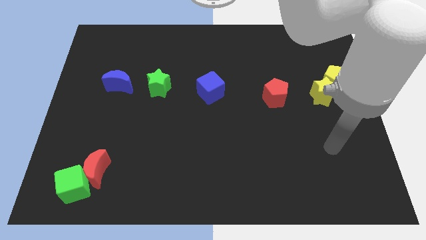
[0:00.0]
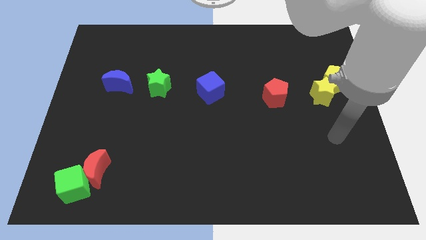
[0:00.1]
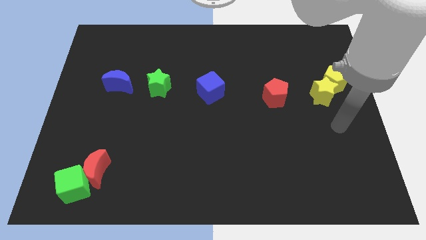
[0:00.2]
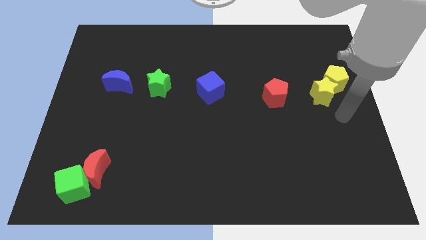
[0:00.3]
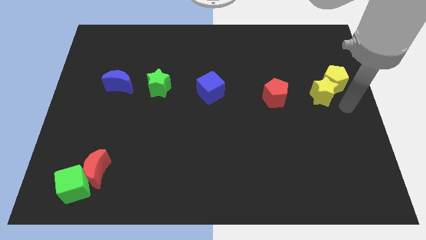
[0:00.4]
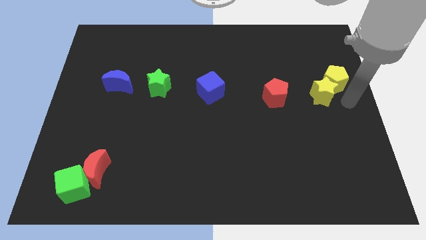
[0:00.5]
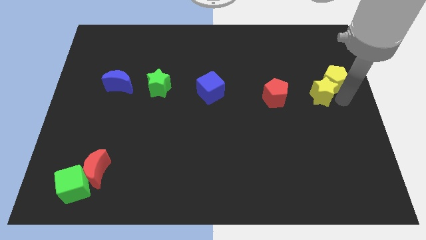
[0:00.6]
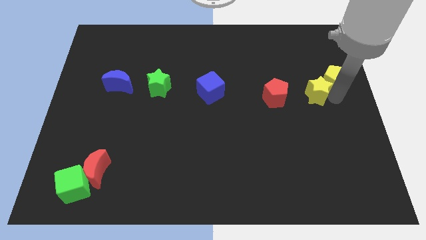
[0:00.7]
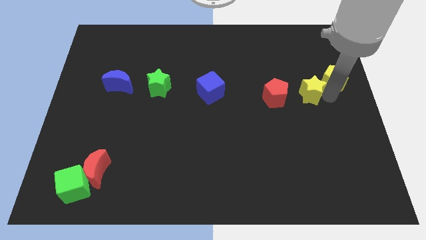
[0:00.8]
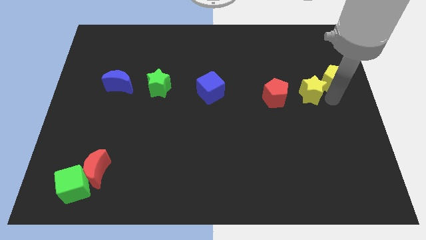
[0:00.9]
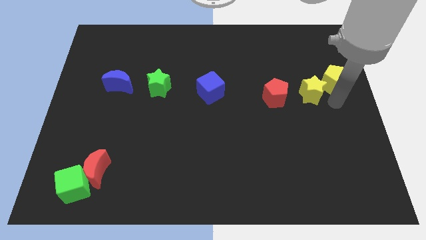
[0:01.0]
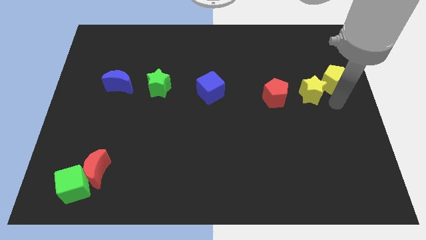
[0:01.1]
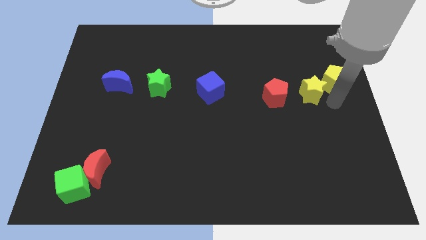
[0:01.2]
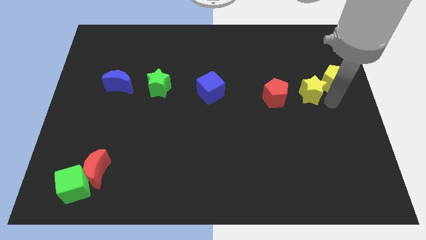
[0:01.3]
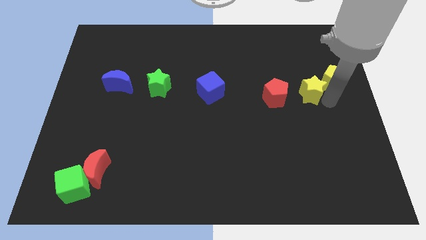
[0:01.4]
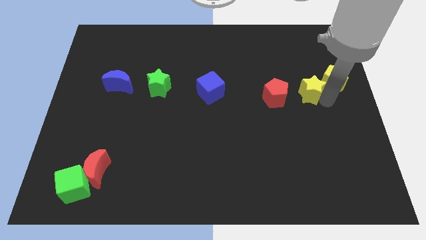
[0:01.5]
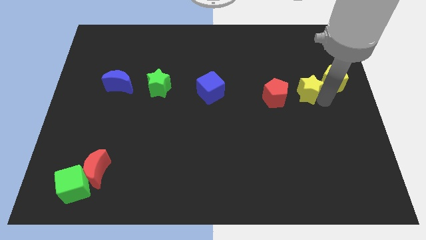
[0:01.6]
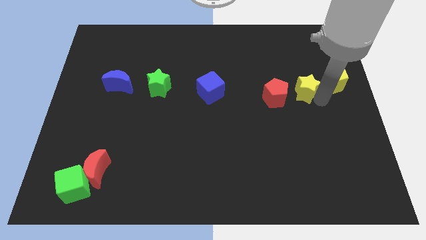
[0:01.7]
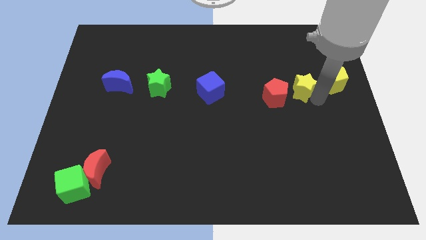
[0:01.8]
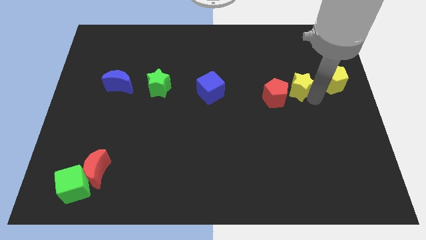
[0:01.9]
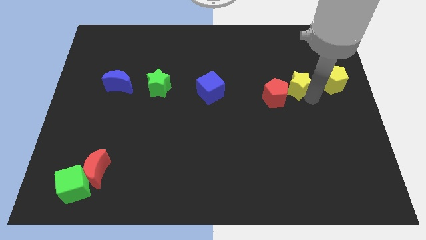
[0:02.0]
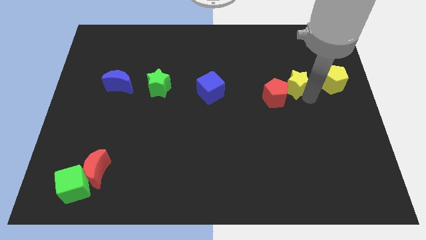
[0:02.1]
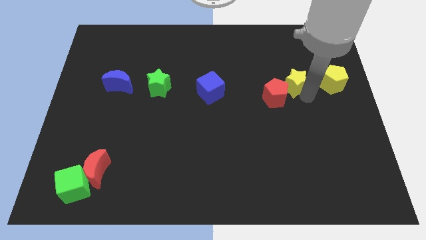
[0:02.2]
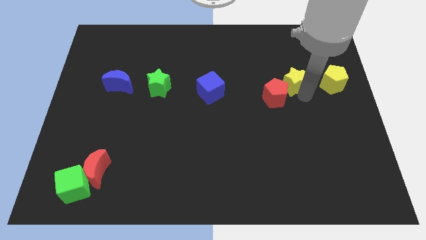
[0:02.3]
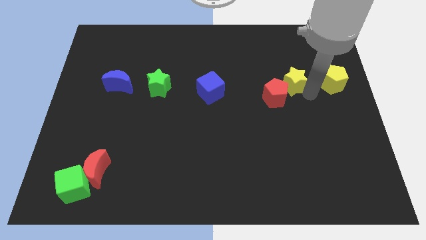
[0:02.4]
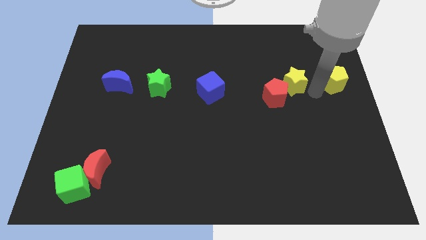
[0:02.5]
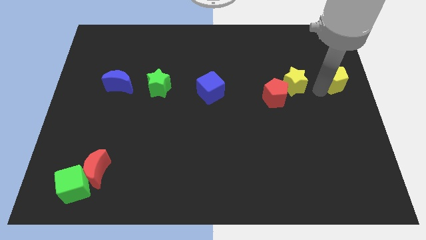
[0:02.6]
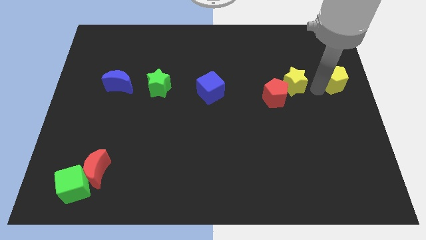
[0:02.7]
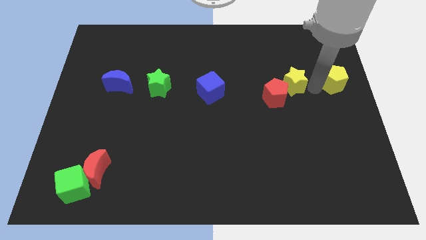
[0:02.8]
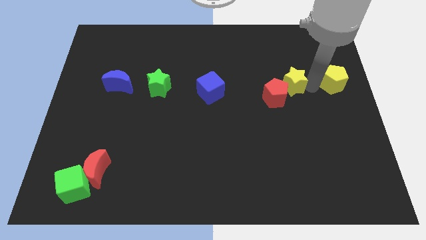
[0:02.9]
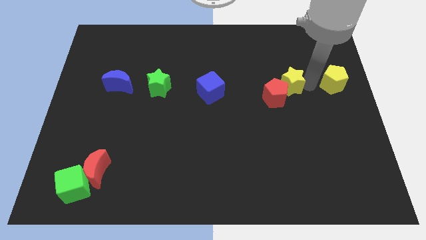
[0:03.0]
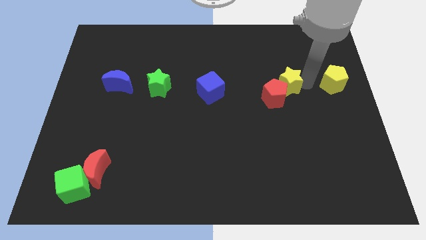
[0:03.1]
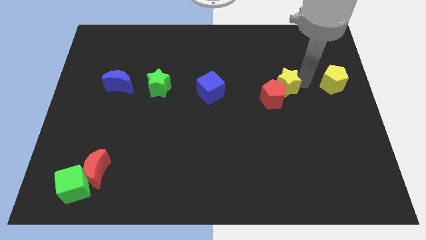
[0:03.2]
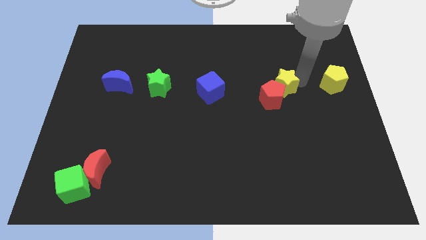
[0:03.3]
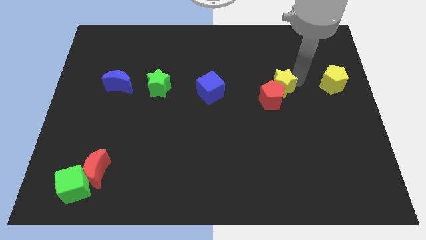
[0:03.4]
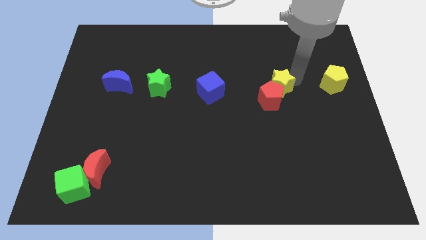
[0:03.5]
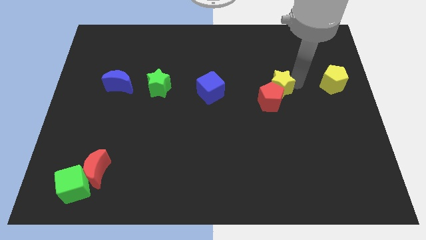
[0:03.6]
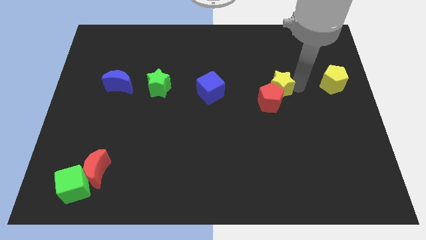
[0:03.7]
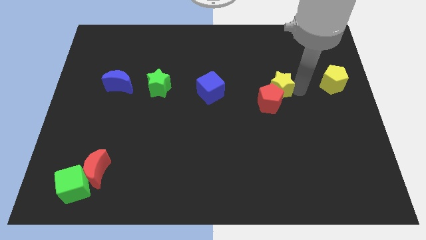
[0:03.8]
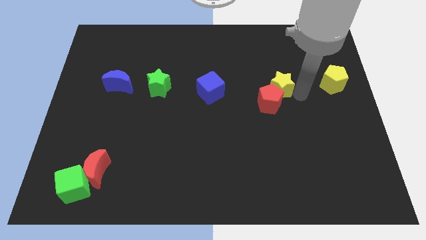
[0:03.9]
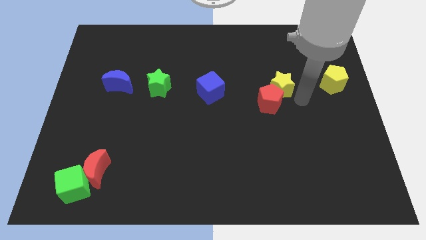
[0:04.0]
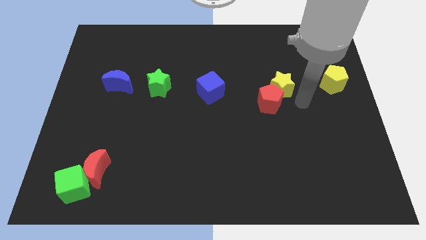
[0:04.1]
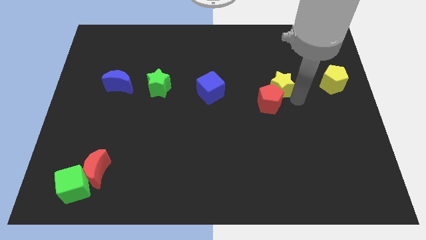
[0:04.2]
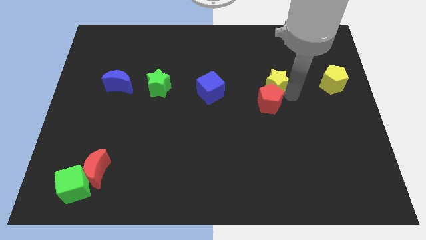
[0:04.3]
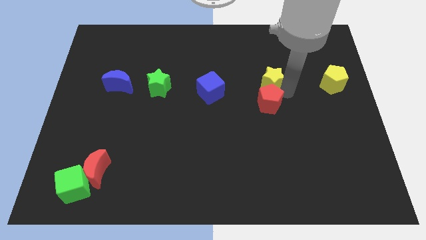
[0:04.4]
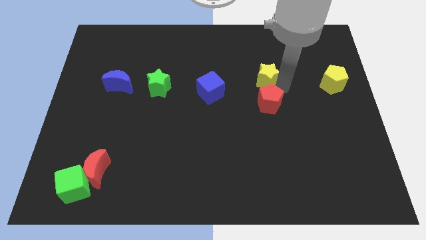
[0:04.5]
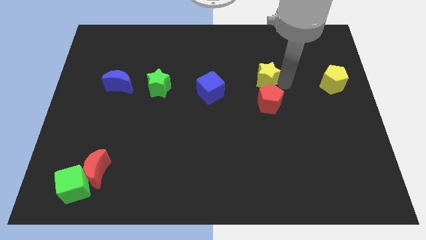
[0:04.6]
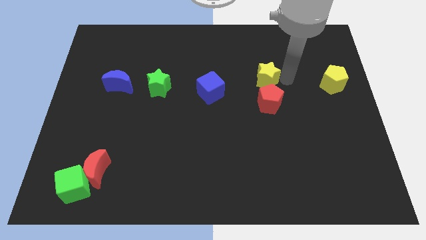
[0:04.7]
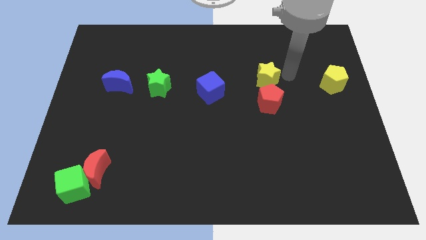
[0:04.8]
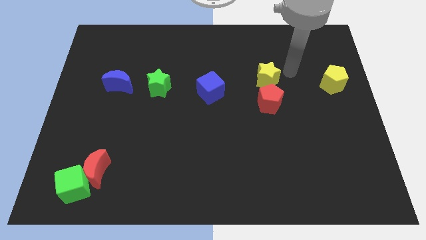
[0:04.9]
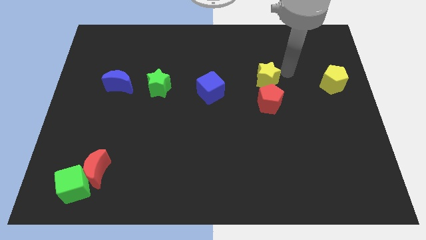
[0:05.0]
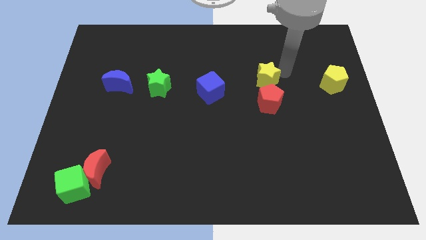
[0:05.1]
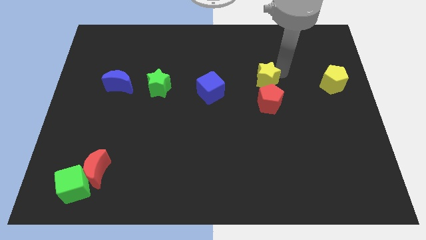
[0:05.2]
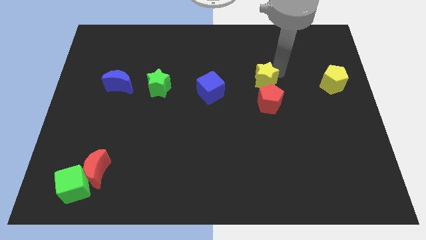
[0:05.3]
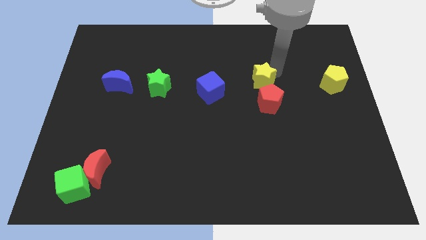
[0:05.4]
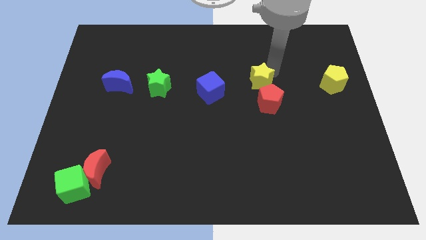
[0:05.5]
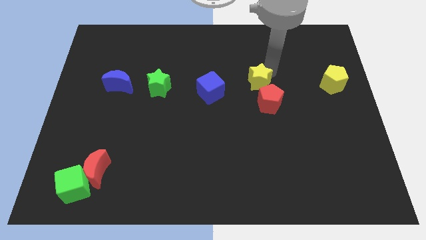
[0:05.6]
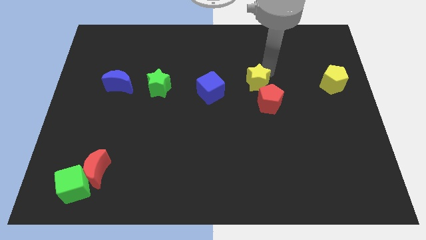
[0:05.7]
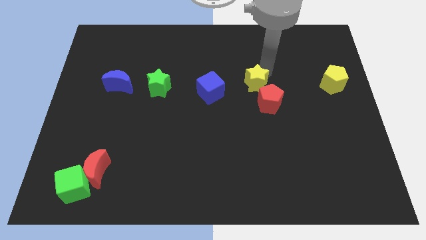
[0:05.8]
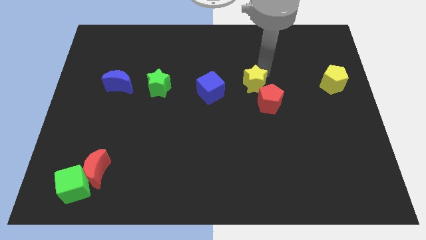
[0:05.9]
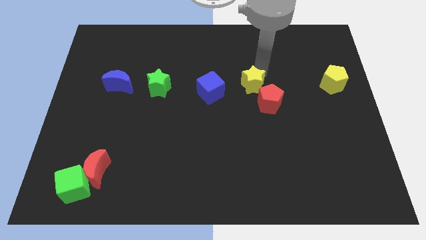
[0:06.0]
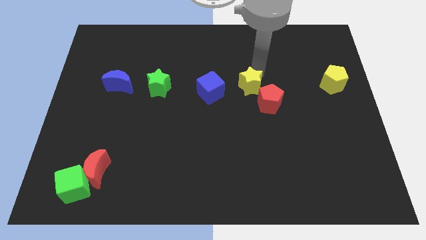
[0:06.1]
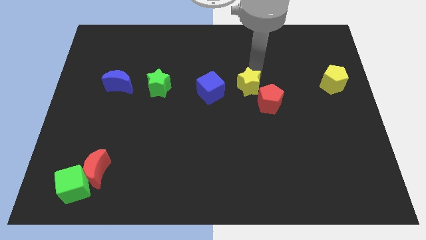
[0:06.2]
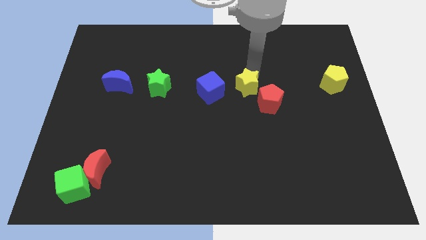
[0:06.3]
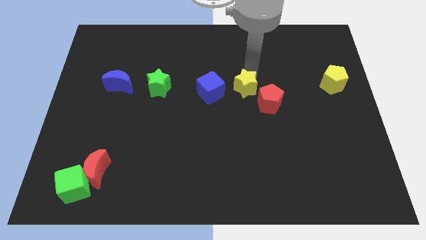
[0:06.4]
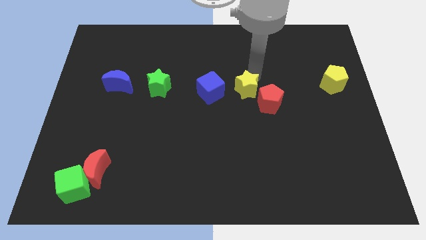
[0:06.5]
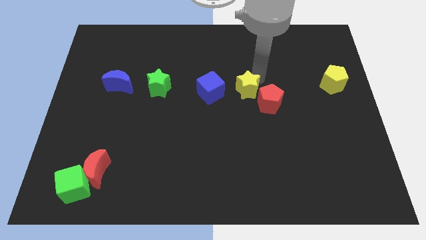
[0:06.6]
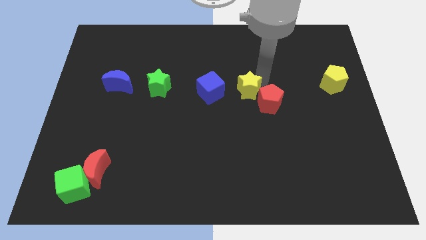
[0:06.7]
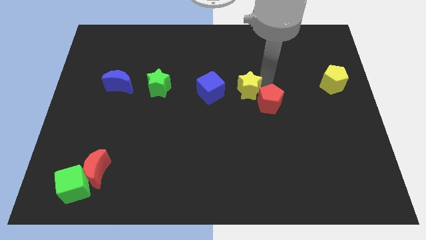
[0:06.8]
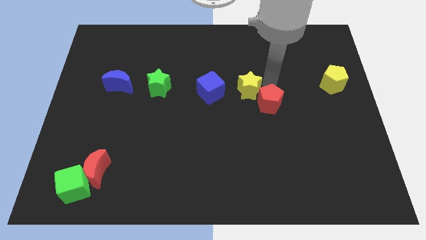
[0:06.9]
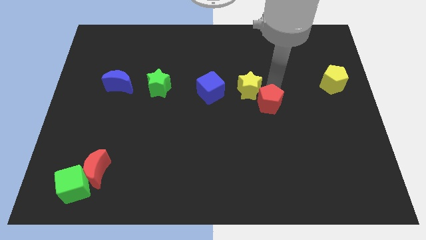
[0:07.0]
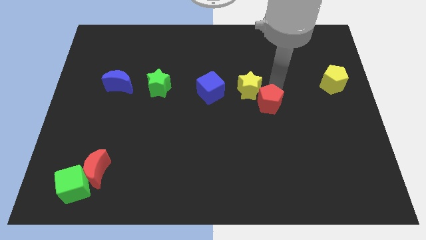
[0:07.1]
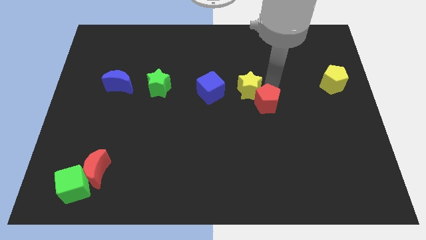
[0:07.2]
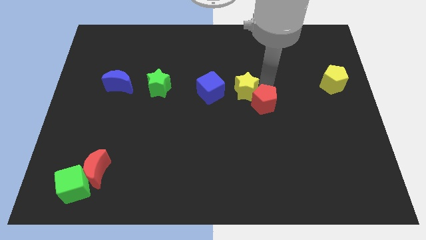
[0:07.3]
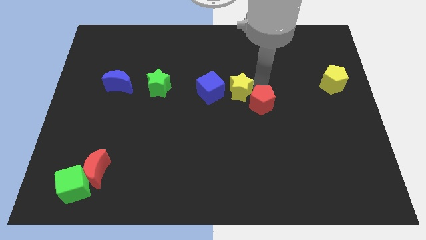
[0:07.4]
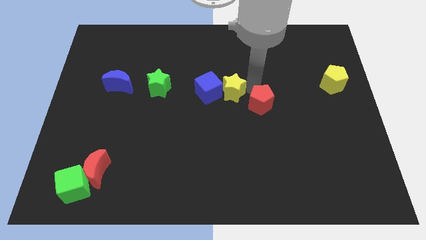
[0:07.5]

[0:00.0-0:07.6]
push the yellow star to the blue cube

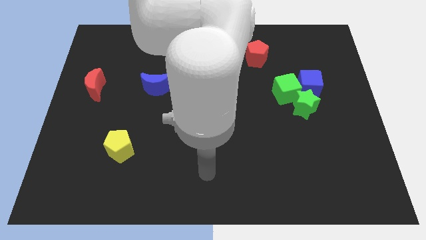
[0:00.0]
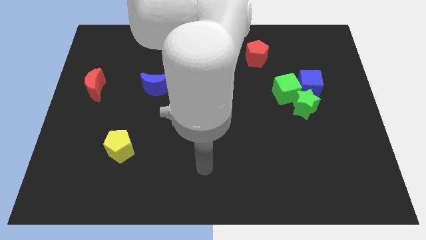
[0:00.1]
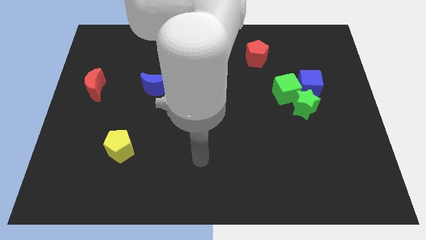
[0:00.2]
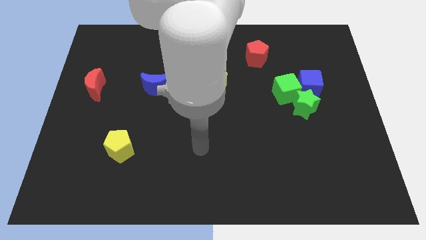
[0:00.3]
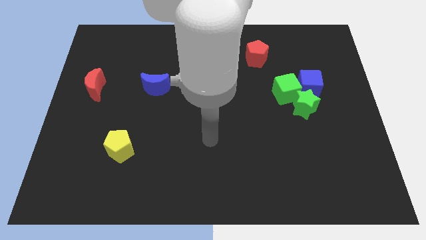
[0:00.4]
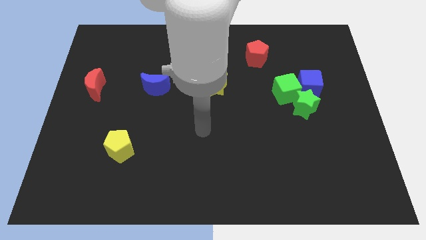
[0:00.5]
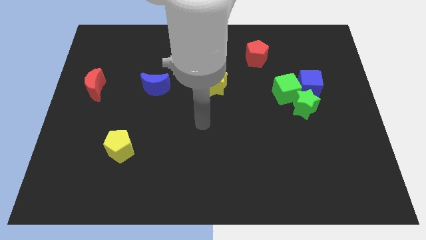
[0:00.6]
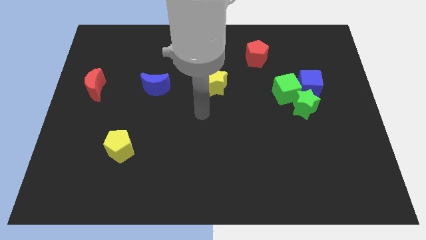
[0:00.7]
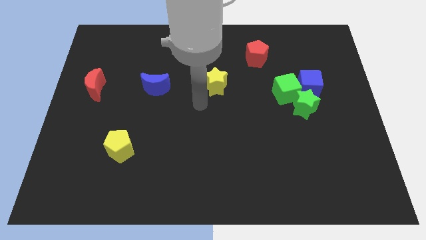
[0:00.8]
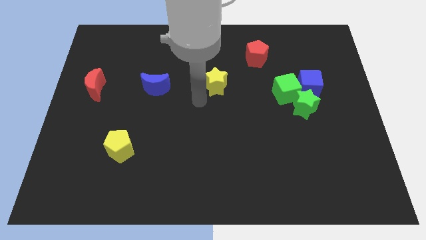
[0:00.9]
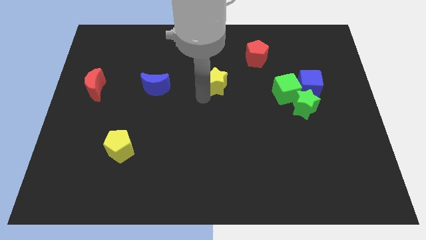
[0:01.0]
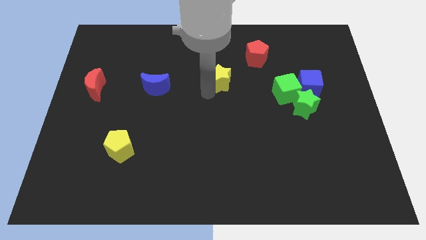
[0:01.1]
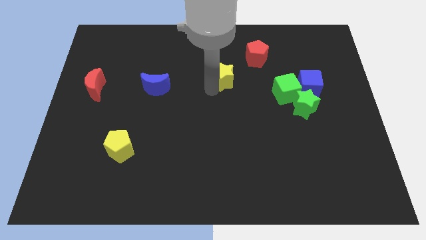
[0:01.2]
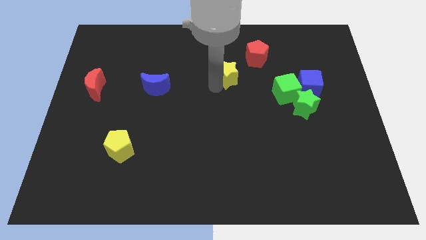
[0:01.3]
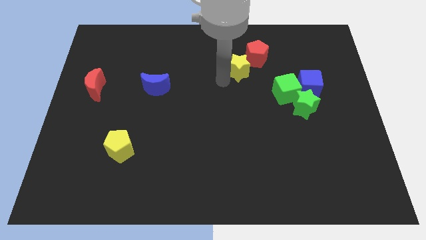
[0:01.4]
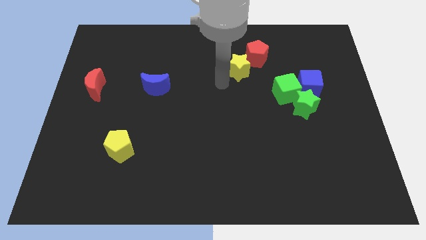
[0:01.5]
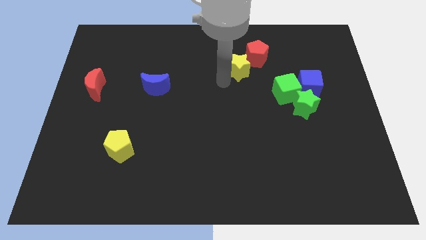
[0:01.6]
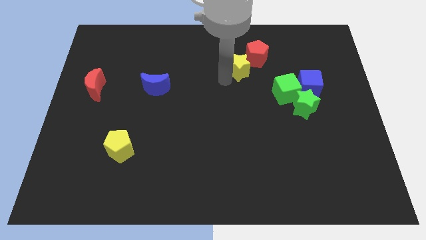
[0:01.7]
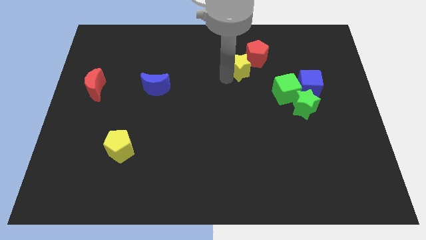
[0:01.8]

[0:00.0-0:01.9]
push the yellow star next to the red pentagon
